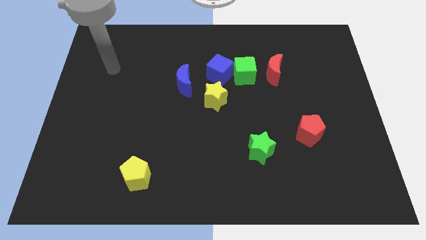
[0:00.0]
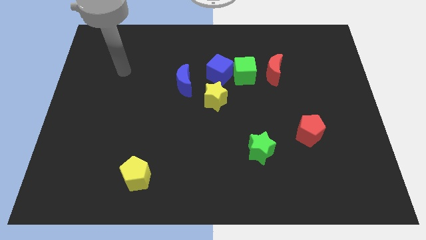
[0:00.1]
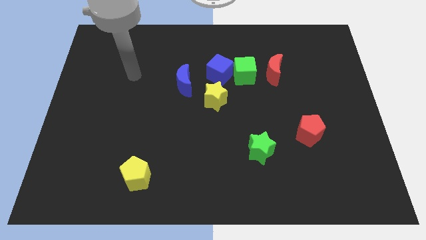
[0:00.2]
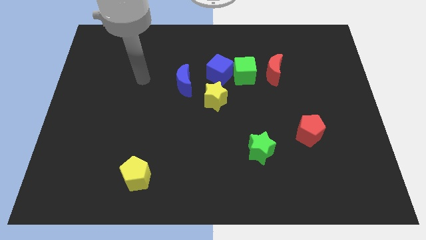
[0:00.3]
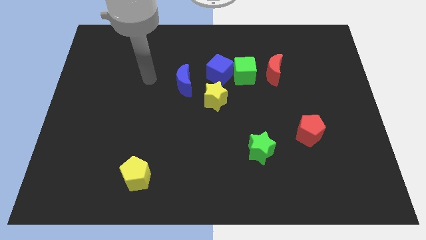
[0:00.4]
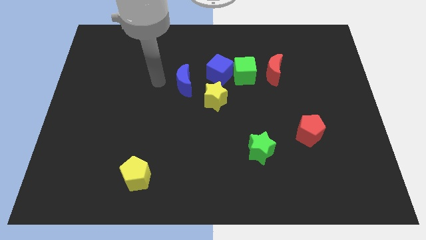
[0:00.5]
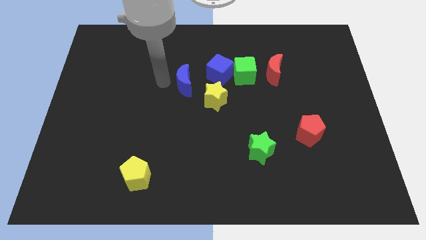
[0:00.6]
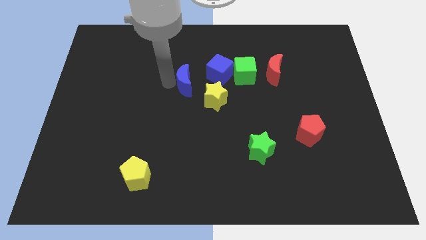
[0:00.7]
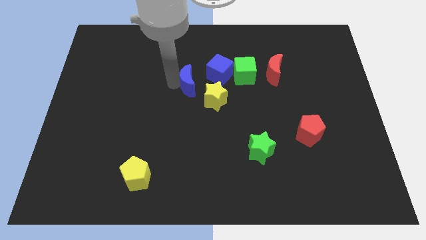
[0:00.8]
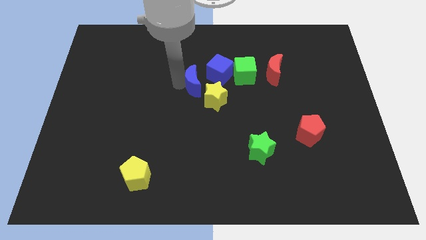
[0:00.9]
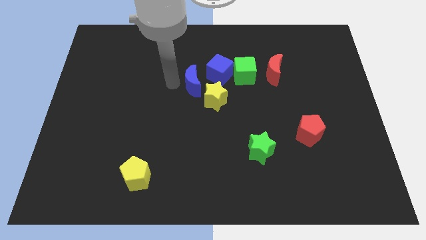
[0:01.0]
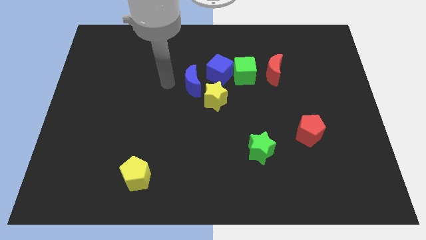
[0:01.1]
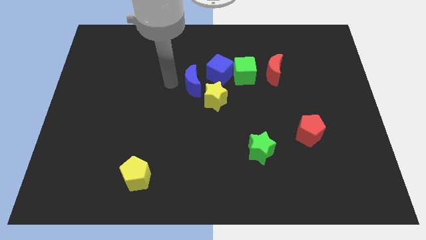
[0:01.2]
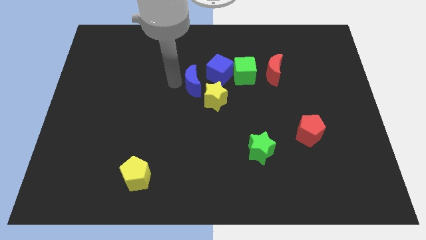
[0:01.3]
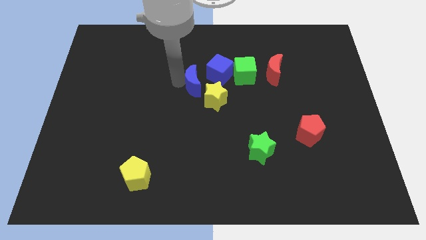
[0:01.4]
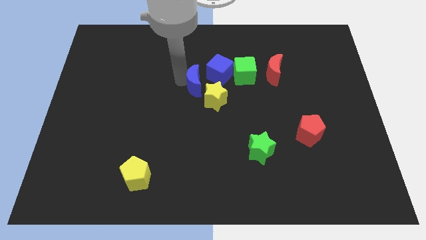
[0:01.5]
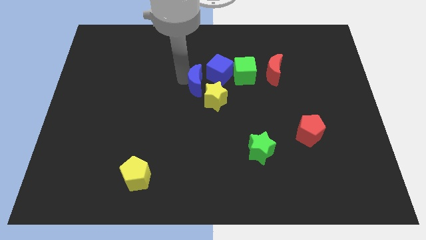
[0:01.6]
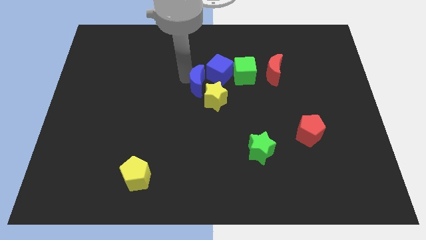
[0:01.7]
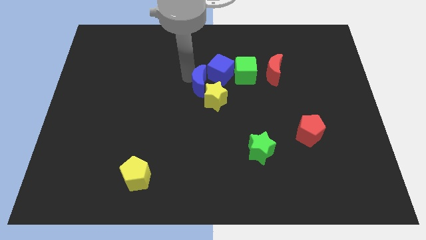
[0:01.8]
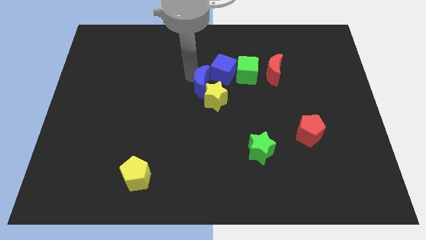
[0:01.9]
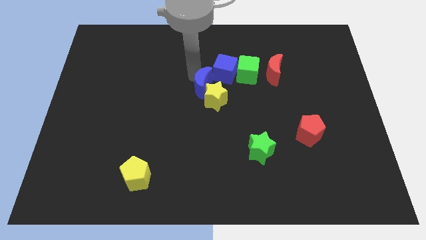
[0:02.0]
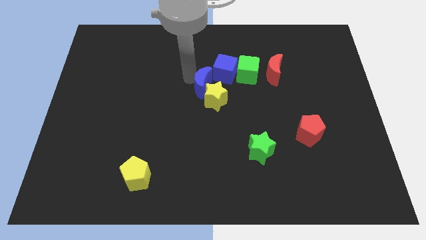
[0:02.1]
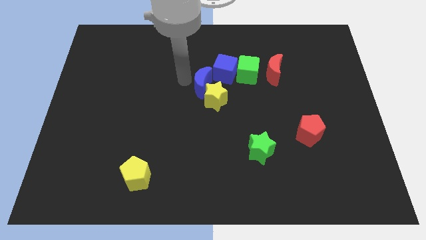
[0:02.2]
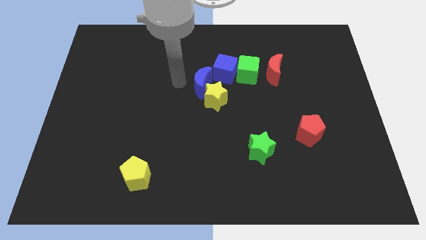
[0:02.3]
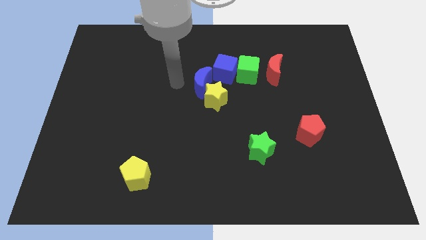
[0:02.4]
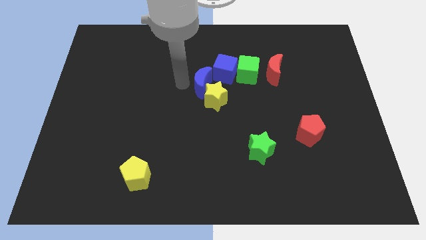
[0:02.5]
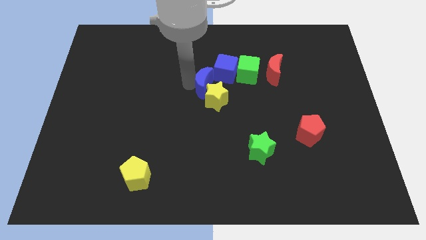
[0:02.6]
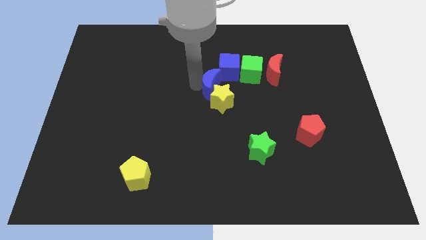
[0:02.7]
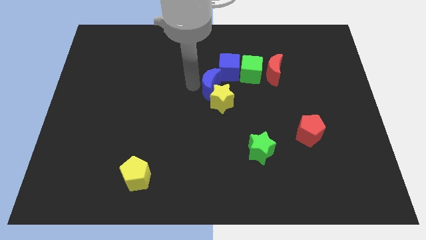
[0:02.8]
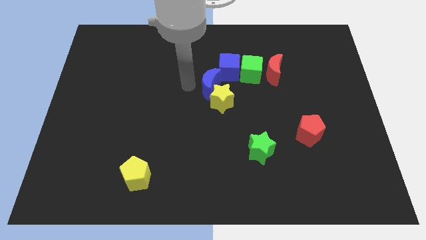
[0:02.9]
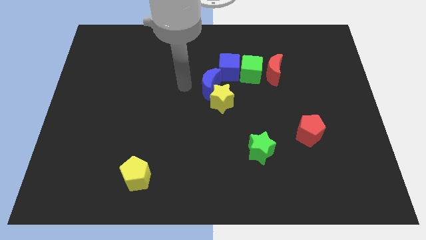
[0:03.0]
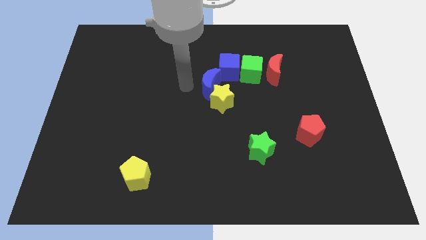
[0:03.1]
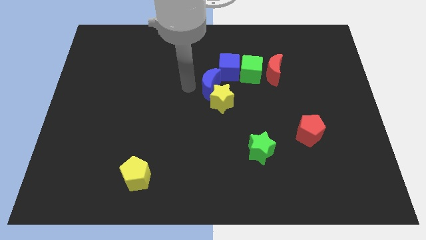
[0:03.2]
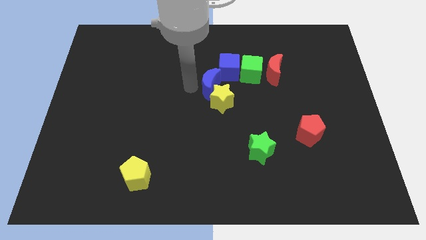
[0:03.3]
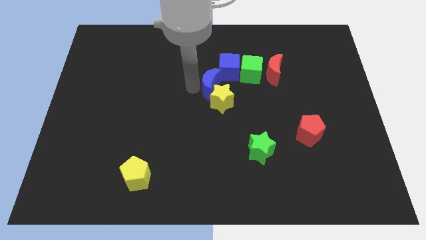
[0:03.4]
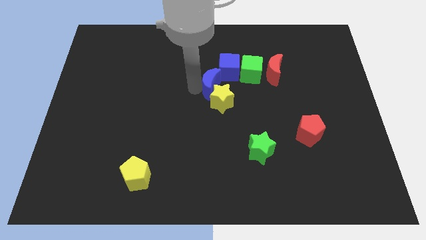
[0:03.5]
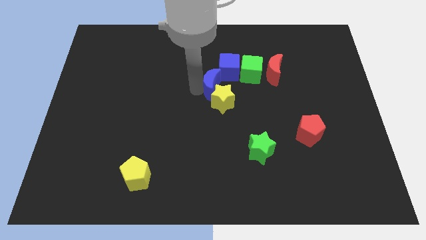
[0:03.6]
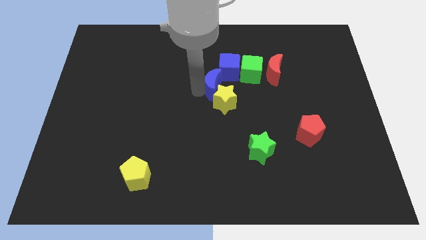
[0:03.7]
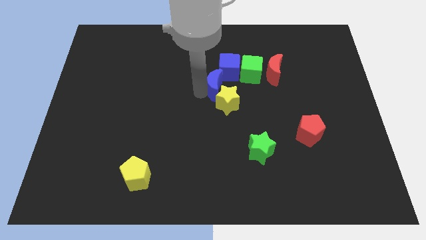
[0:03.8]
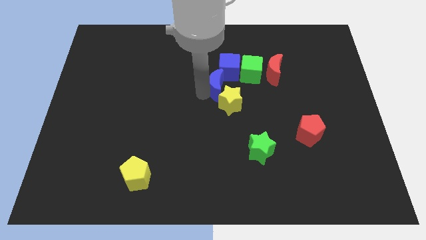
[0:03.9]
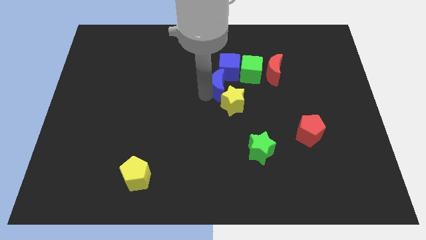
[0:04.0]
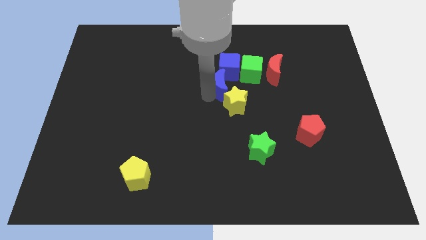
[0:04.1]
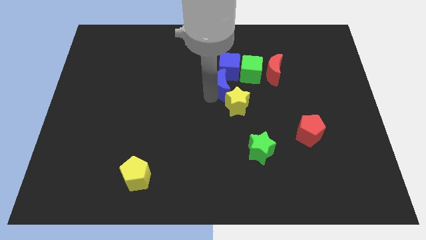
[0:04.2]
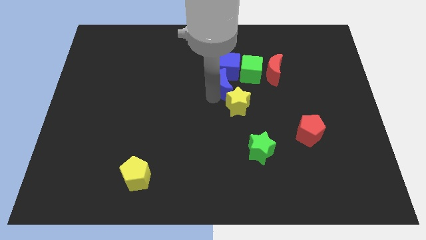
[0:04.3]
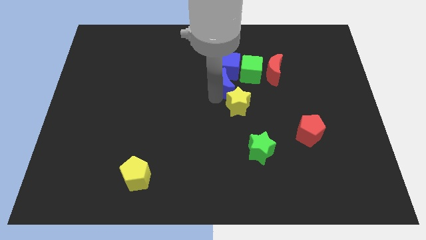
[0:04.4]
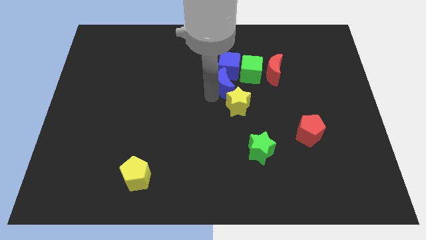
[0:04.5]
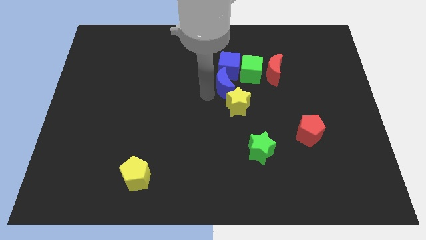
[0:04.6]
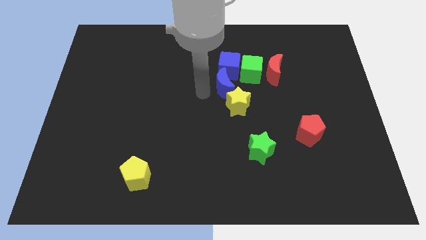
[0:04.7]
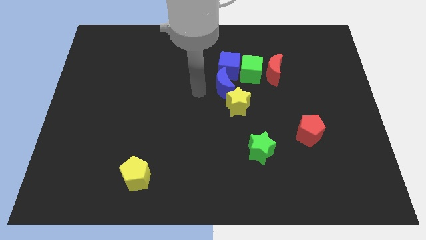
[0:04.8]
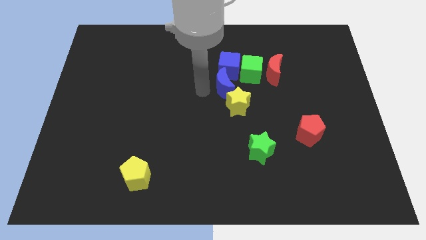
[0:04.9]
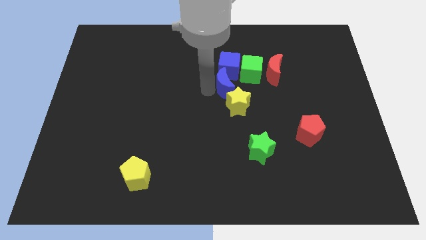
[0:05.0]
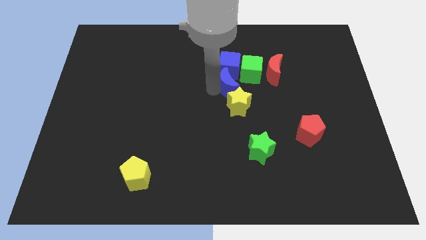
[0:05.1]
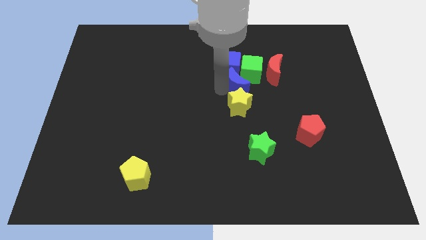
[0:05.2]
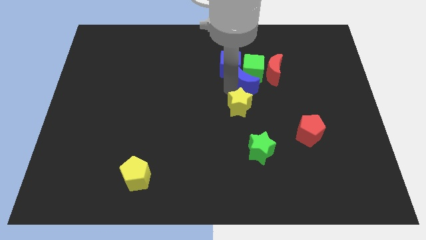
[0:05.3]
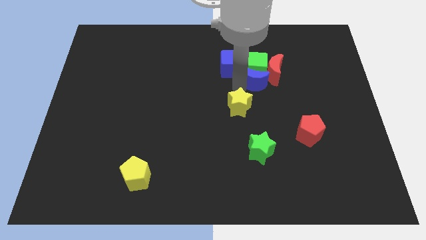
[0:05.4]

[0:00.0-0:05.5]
push the blue moon close to the red moon

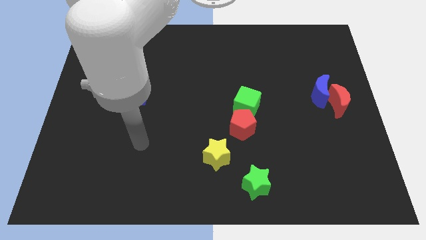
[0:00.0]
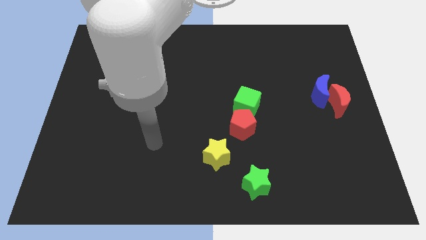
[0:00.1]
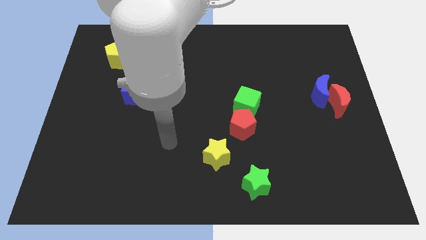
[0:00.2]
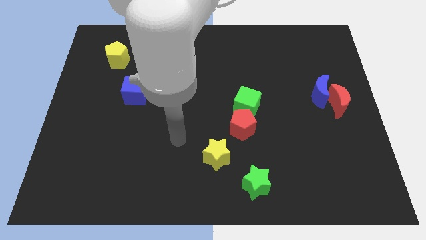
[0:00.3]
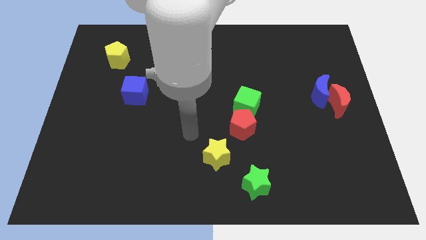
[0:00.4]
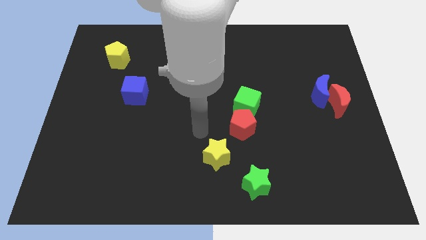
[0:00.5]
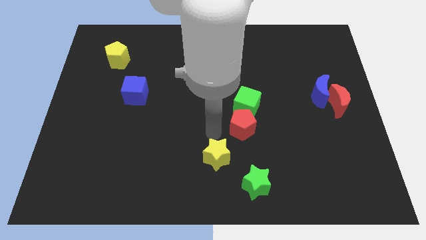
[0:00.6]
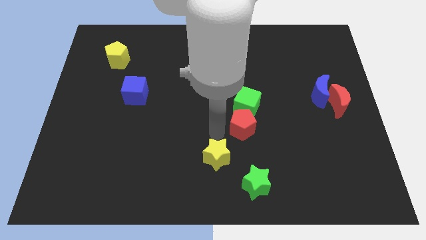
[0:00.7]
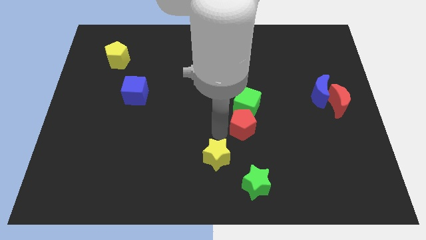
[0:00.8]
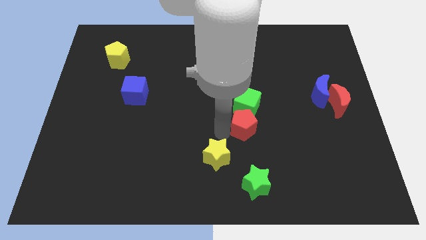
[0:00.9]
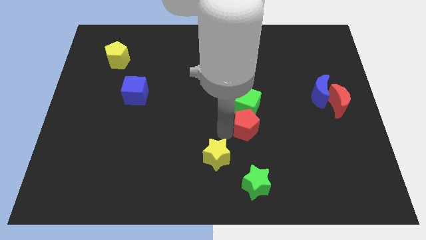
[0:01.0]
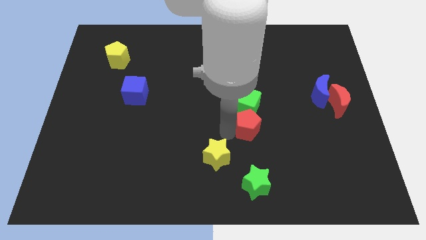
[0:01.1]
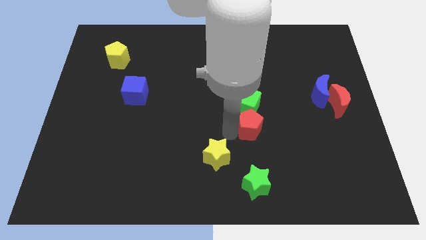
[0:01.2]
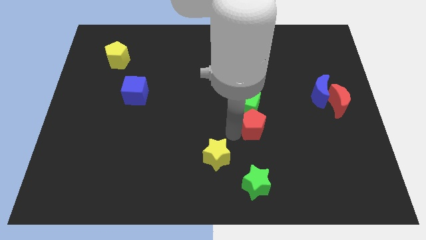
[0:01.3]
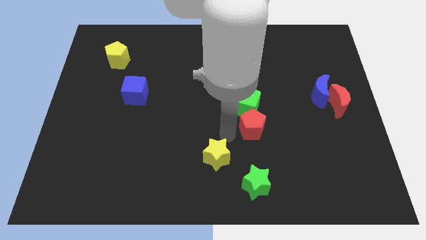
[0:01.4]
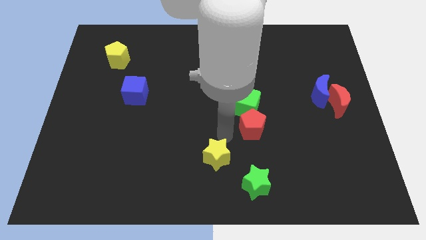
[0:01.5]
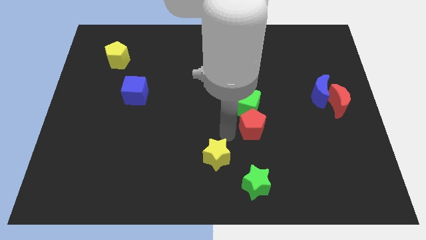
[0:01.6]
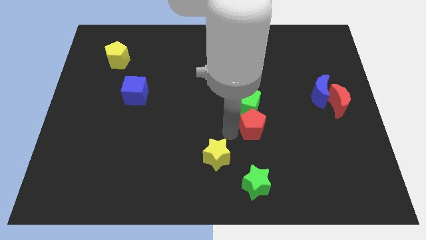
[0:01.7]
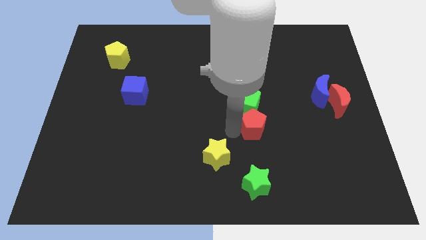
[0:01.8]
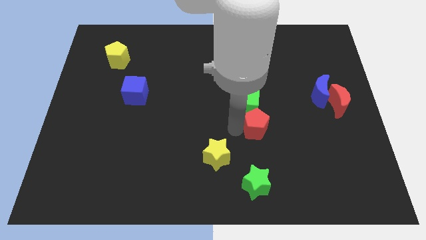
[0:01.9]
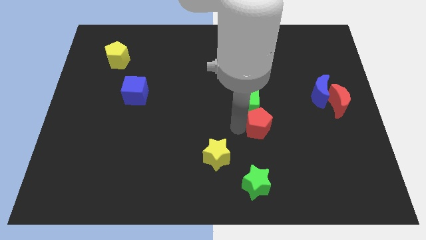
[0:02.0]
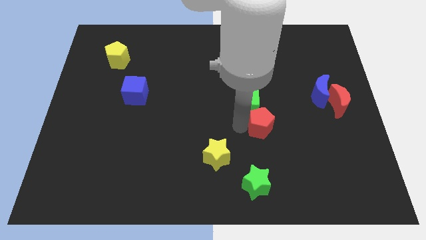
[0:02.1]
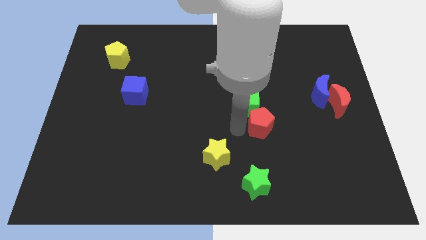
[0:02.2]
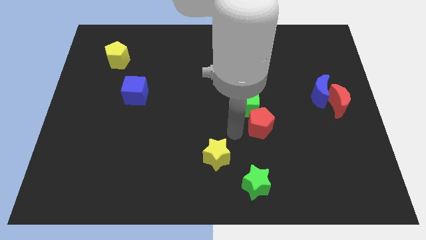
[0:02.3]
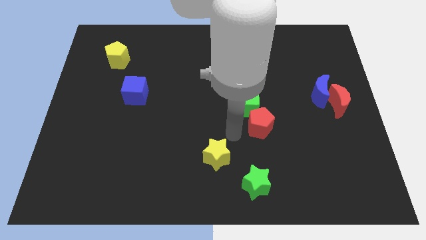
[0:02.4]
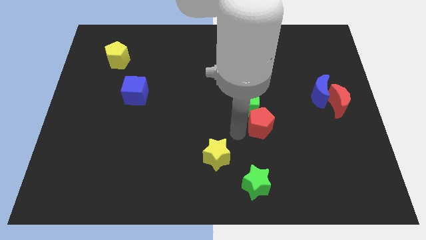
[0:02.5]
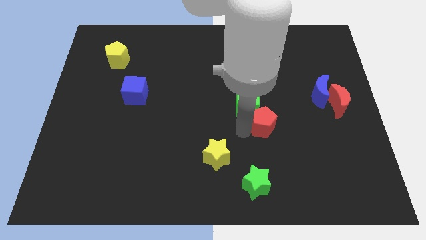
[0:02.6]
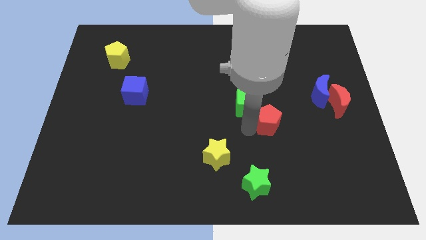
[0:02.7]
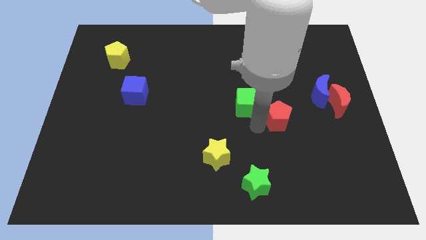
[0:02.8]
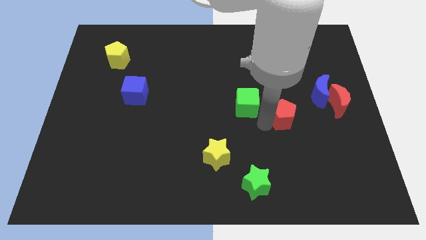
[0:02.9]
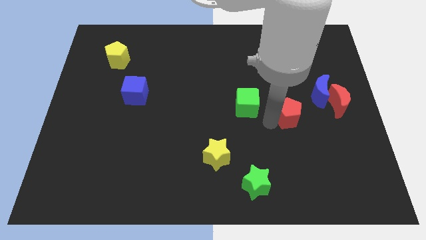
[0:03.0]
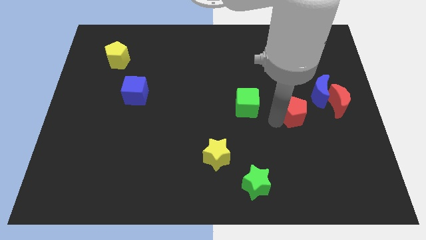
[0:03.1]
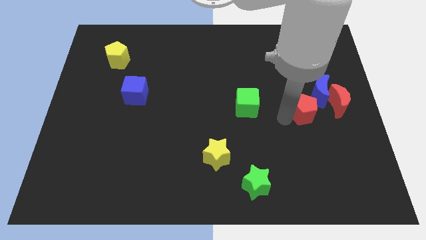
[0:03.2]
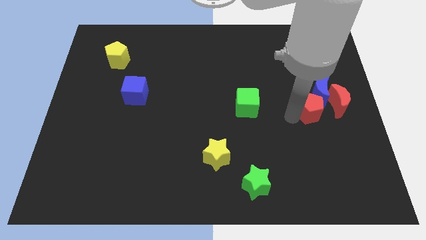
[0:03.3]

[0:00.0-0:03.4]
push the red pentagon towards the blue moon
